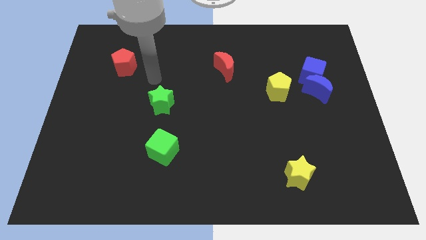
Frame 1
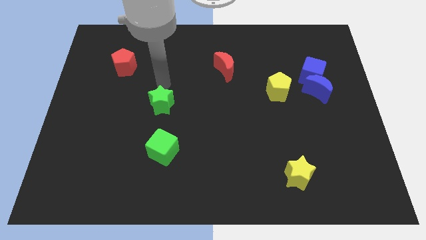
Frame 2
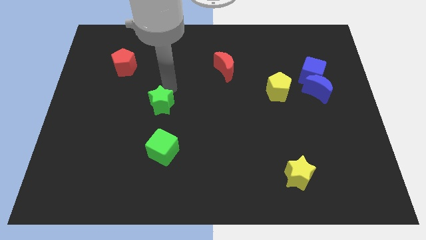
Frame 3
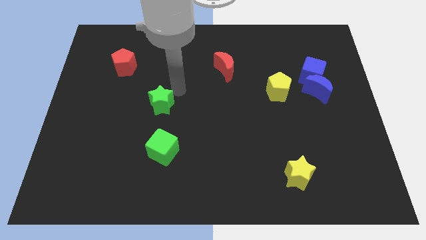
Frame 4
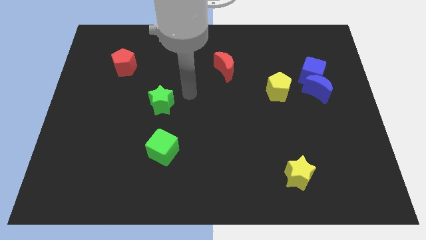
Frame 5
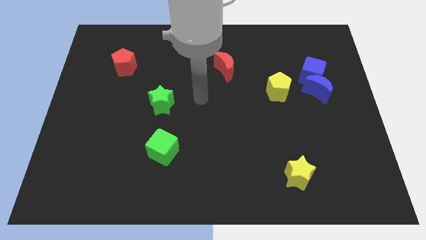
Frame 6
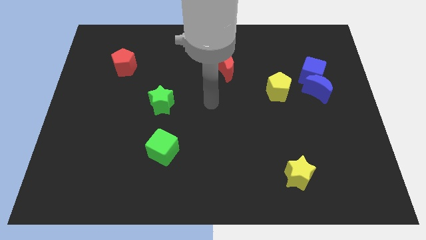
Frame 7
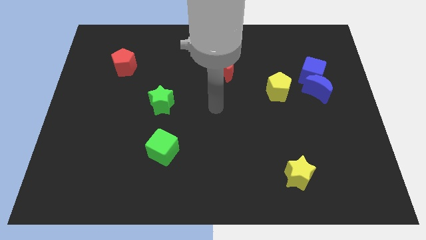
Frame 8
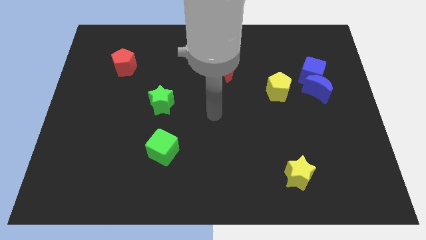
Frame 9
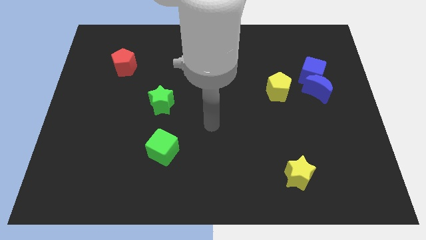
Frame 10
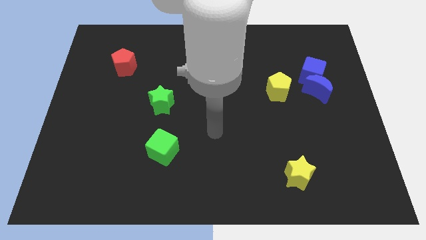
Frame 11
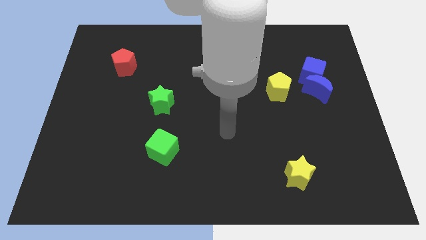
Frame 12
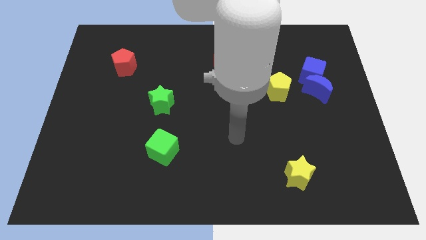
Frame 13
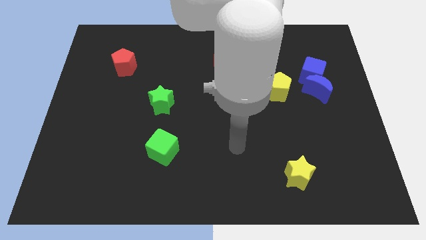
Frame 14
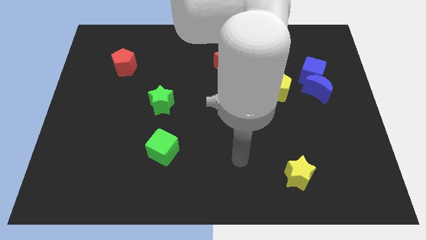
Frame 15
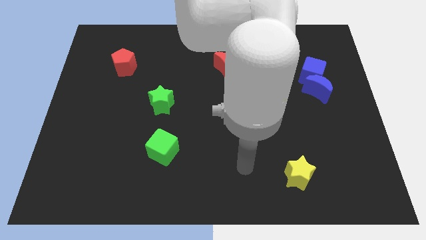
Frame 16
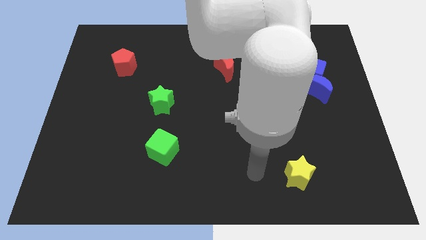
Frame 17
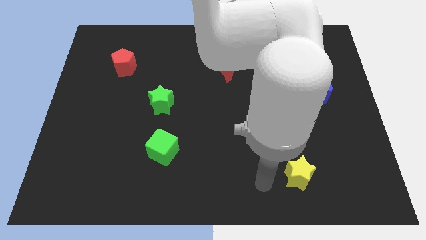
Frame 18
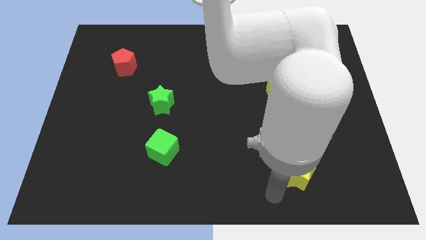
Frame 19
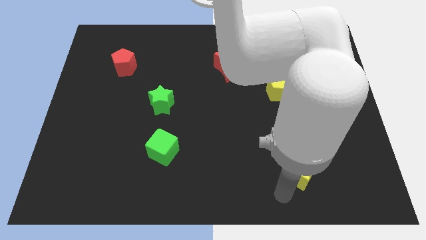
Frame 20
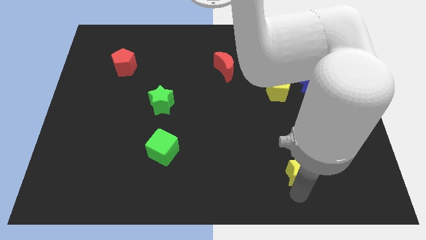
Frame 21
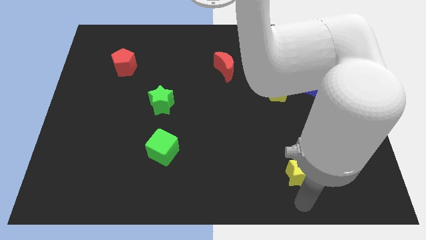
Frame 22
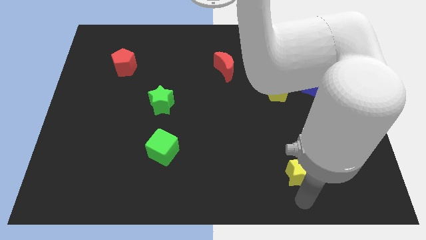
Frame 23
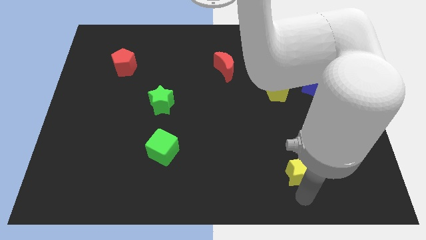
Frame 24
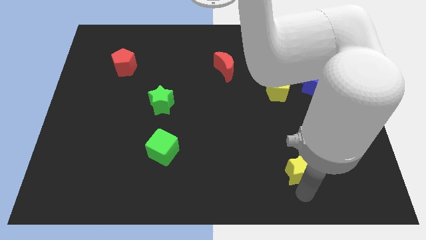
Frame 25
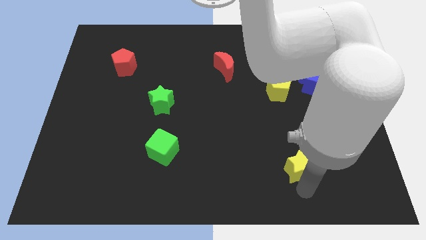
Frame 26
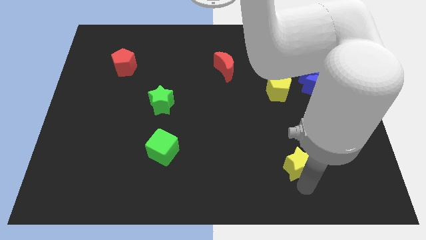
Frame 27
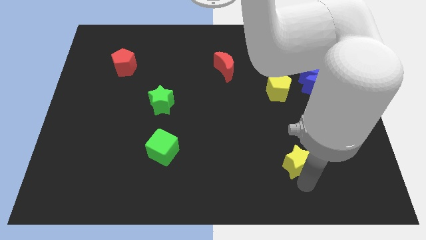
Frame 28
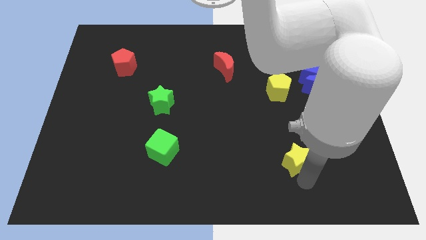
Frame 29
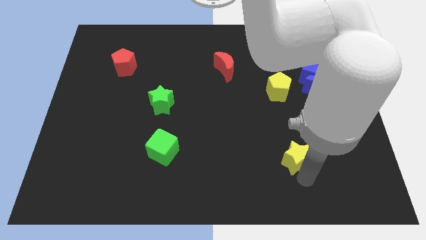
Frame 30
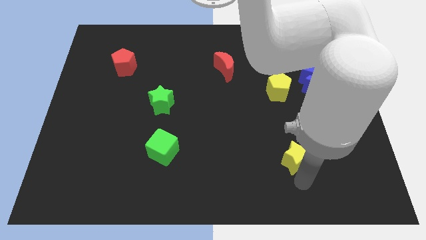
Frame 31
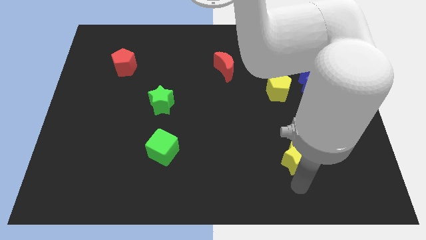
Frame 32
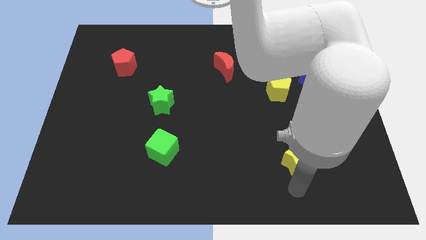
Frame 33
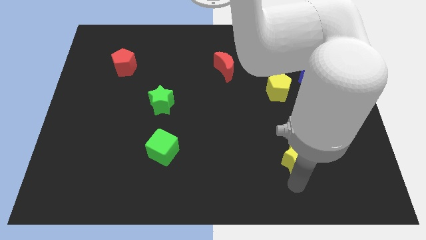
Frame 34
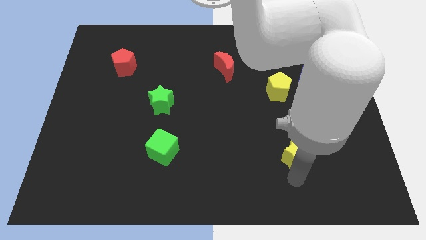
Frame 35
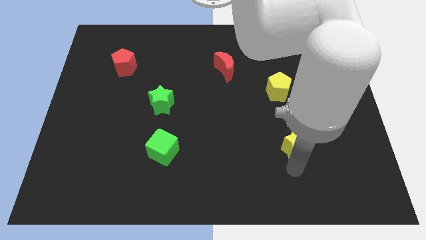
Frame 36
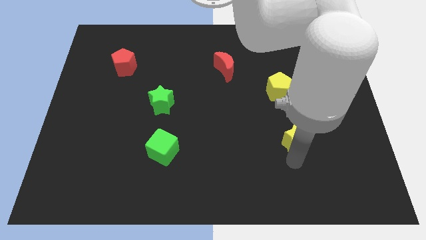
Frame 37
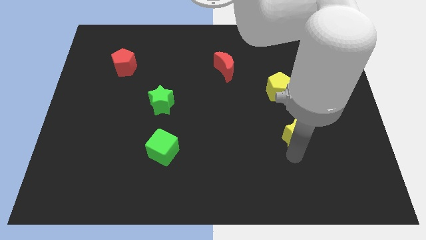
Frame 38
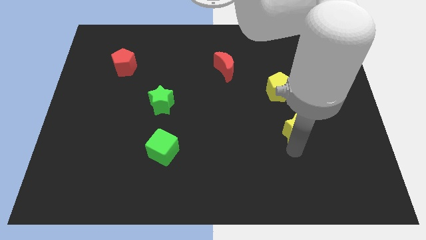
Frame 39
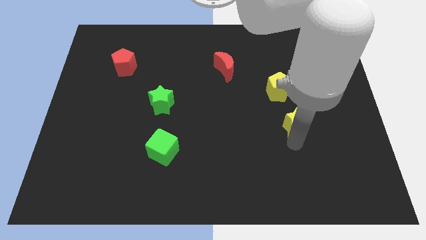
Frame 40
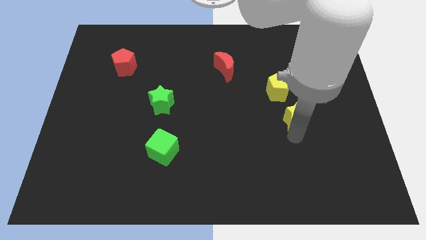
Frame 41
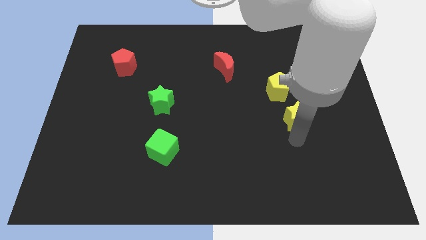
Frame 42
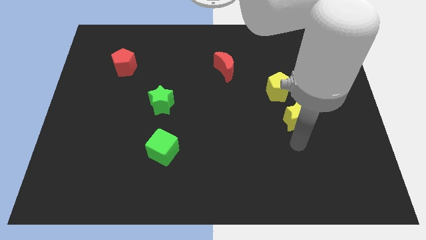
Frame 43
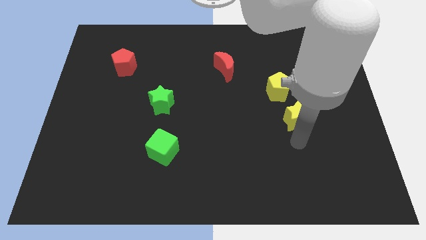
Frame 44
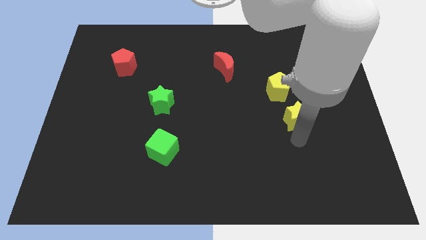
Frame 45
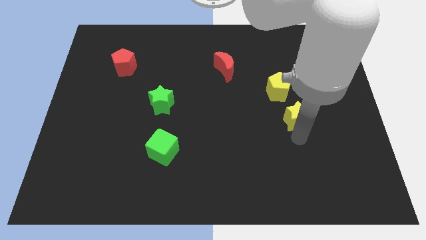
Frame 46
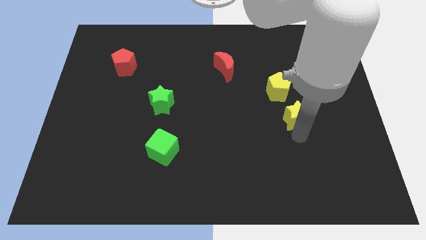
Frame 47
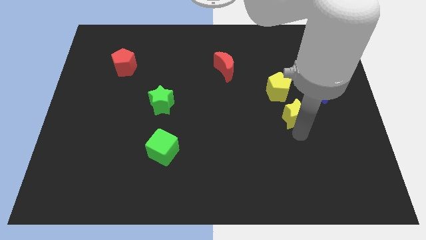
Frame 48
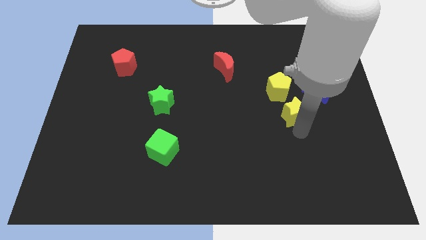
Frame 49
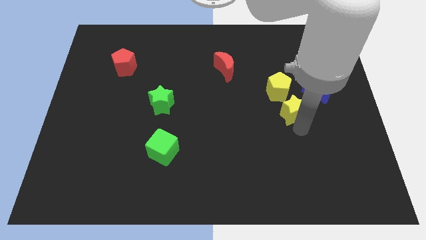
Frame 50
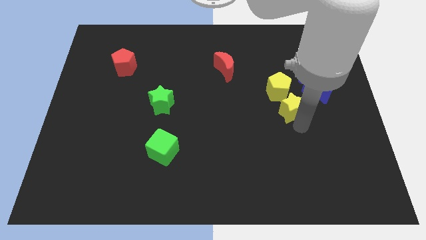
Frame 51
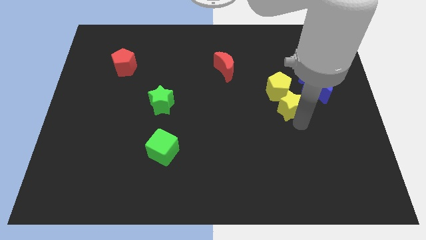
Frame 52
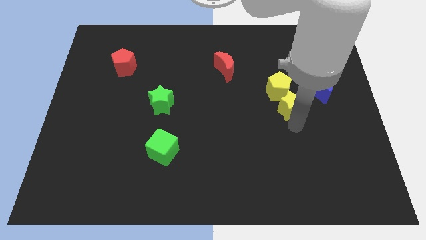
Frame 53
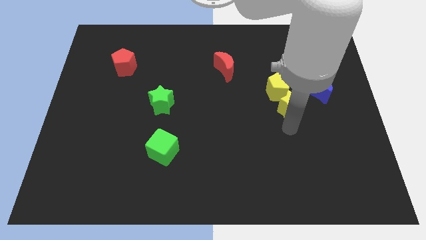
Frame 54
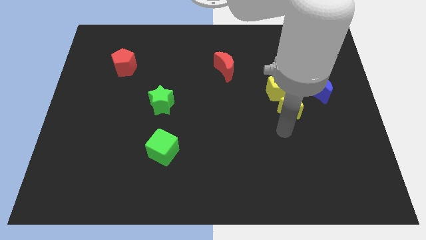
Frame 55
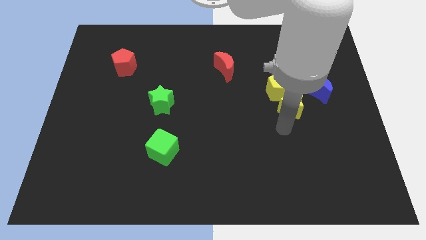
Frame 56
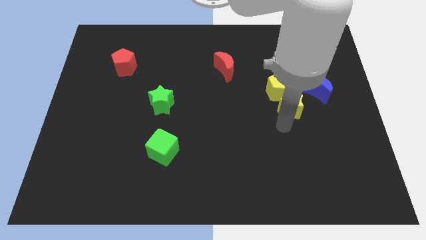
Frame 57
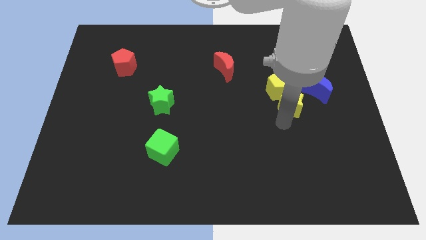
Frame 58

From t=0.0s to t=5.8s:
put the yellow star diagonally down and to the left of the blue cube
